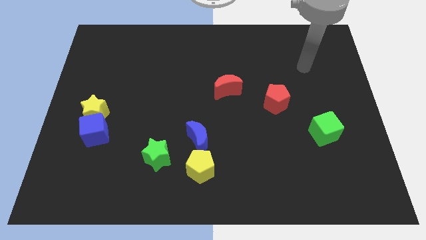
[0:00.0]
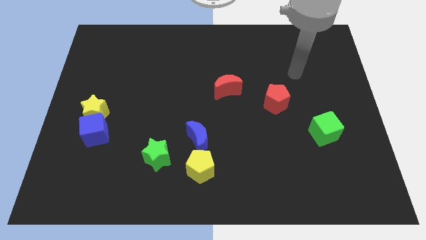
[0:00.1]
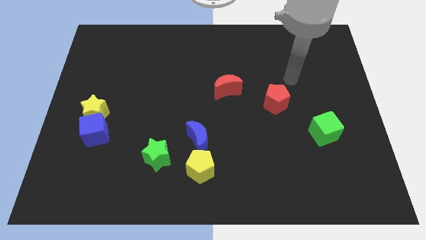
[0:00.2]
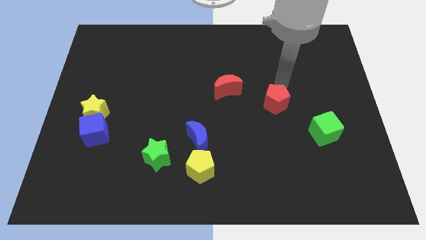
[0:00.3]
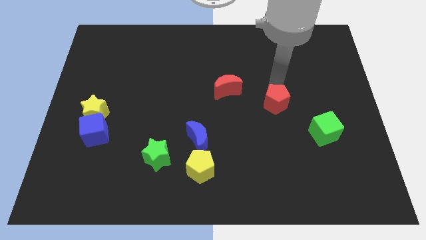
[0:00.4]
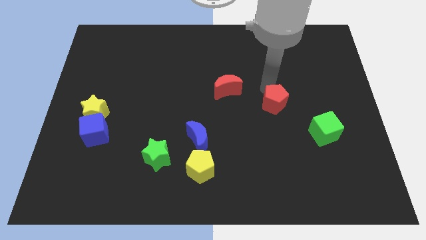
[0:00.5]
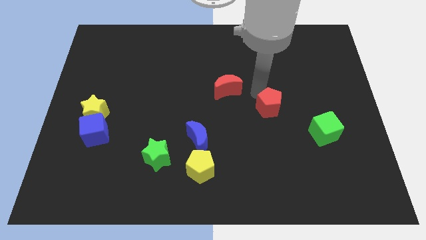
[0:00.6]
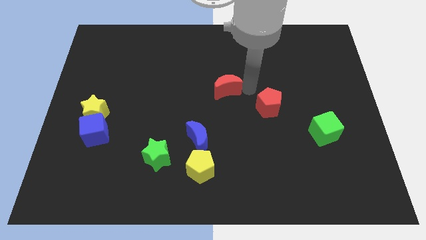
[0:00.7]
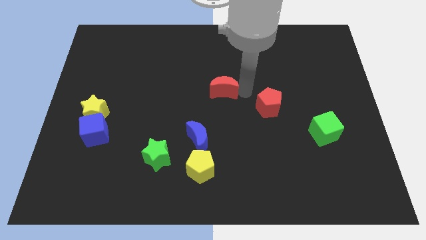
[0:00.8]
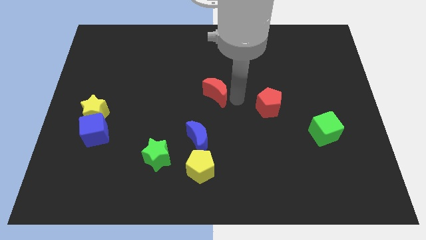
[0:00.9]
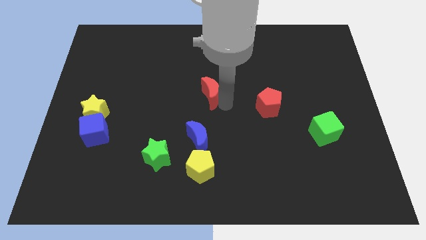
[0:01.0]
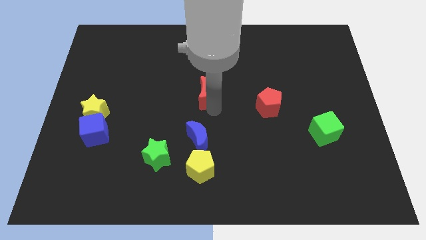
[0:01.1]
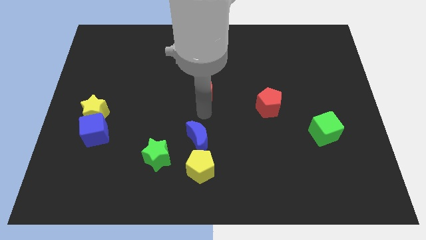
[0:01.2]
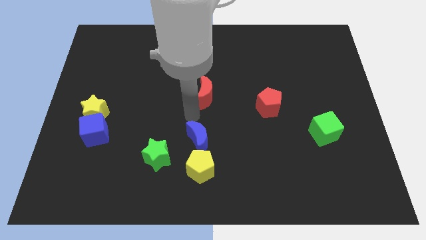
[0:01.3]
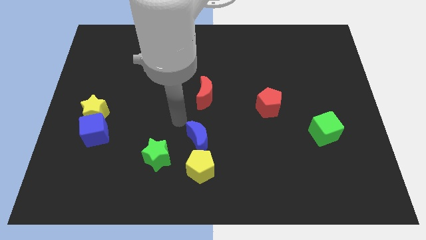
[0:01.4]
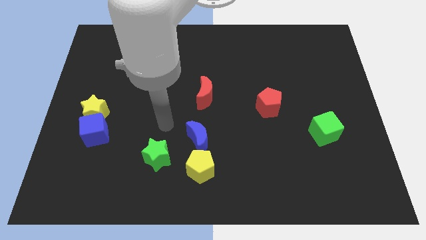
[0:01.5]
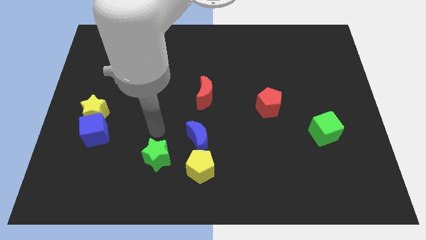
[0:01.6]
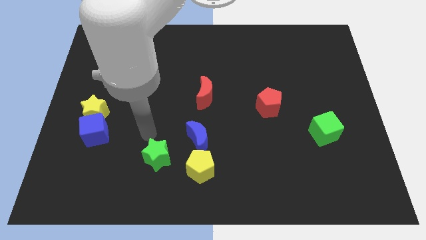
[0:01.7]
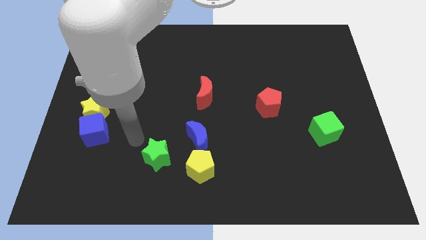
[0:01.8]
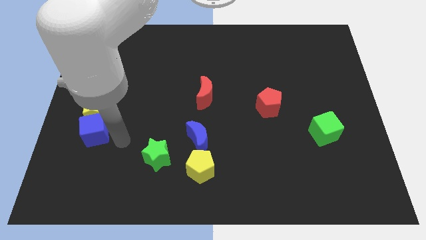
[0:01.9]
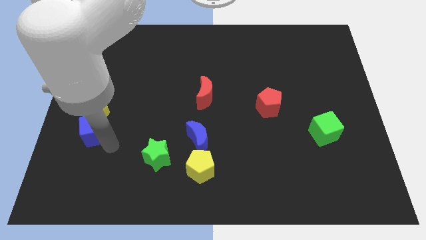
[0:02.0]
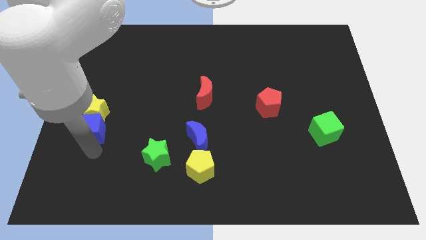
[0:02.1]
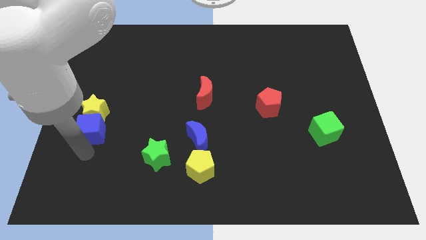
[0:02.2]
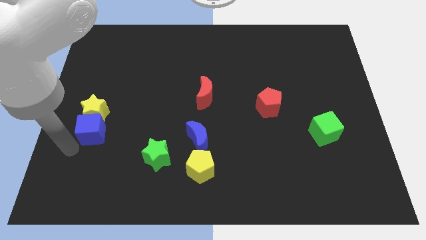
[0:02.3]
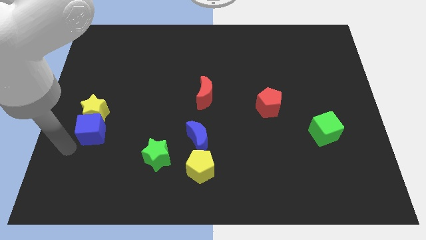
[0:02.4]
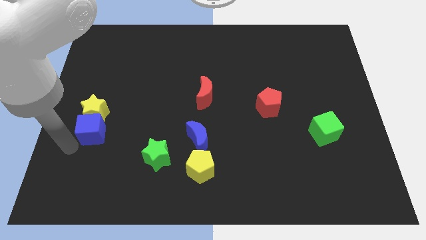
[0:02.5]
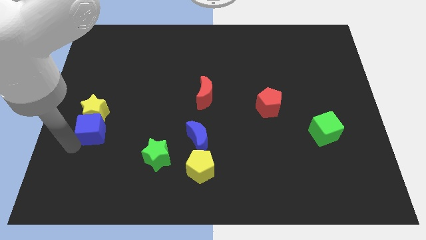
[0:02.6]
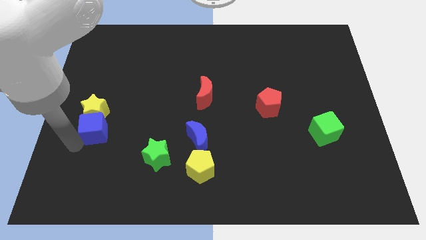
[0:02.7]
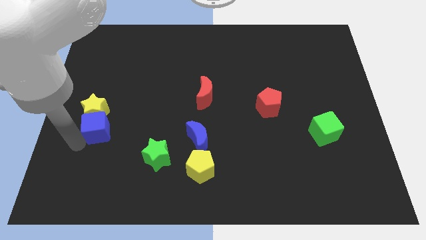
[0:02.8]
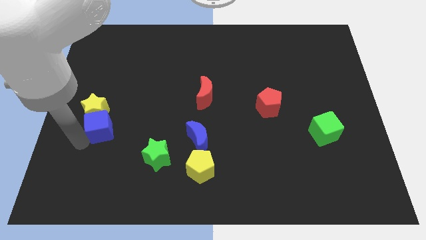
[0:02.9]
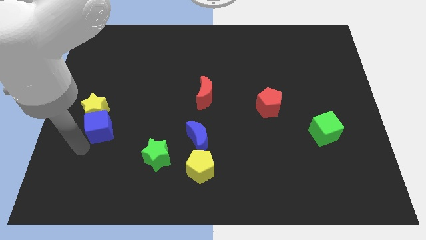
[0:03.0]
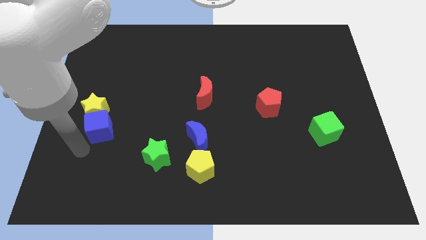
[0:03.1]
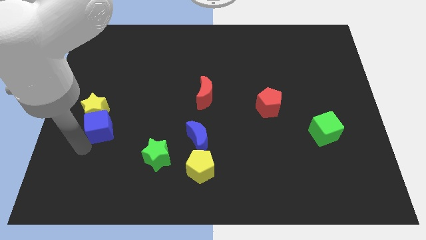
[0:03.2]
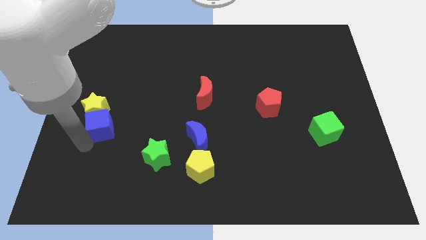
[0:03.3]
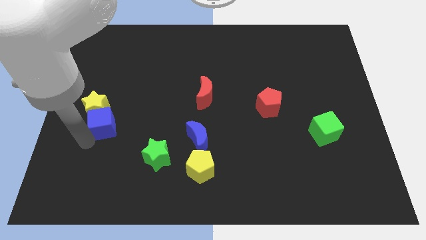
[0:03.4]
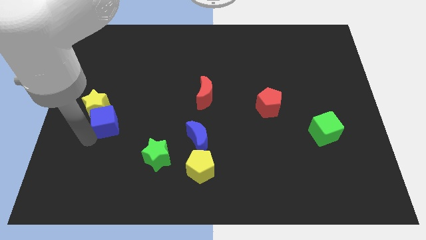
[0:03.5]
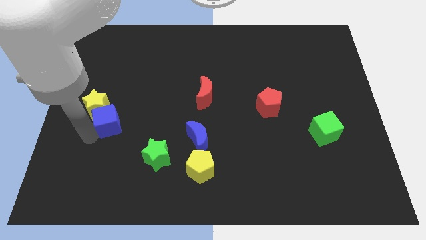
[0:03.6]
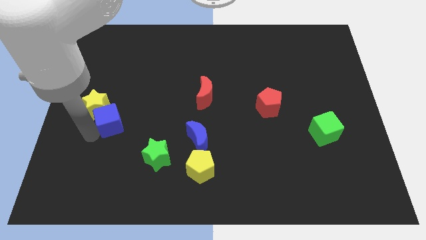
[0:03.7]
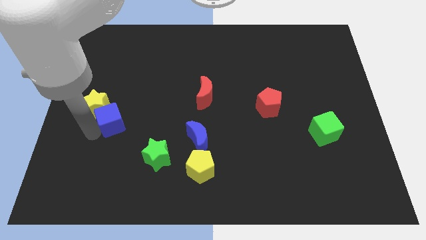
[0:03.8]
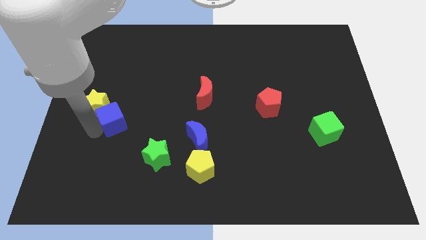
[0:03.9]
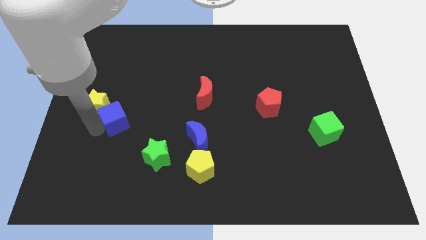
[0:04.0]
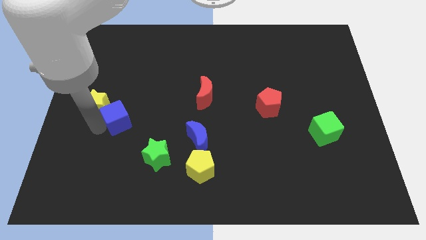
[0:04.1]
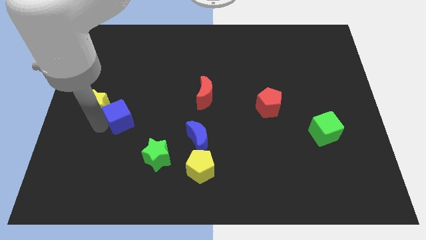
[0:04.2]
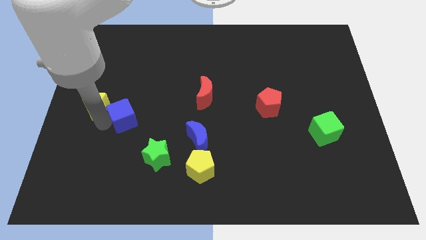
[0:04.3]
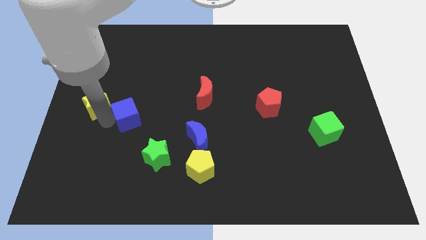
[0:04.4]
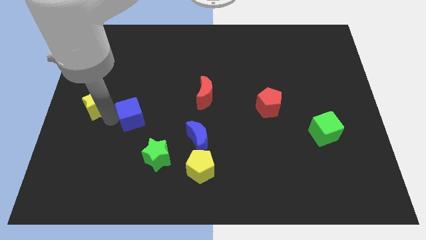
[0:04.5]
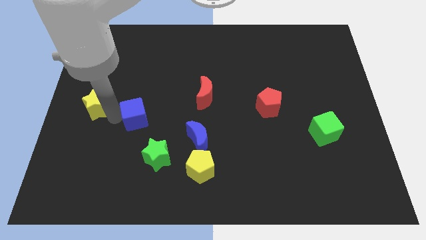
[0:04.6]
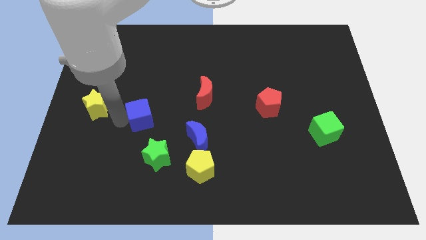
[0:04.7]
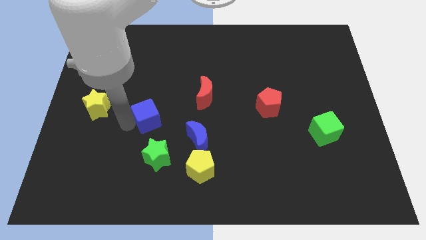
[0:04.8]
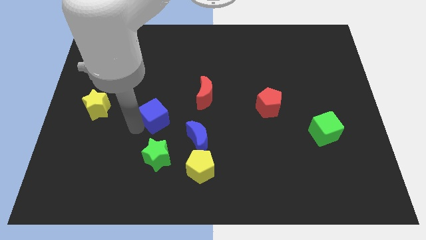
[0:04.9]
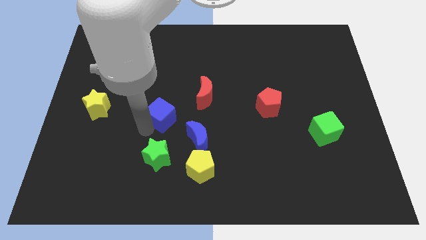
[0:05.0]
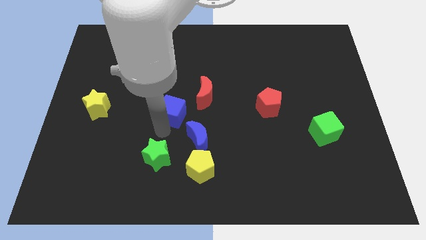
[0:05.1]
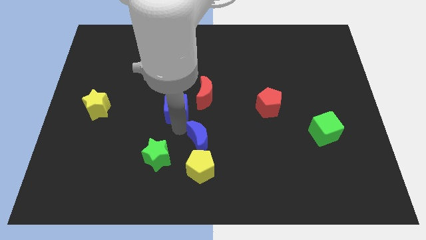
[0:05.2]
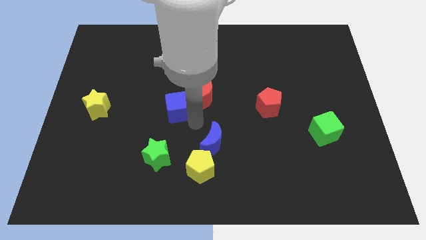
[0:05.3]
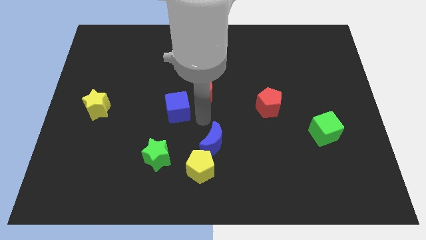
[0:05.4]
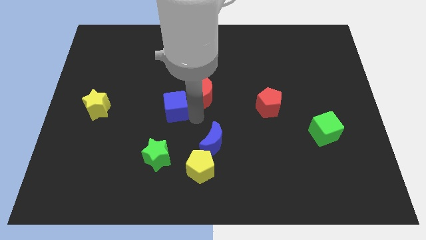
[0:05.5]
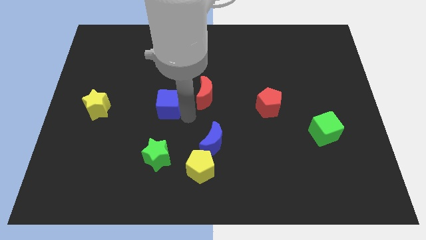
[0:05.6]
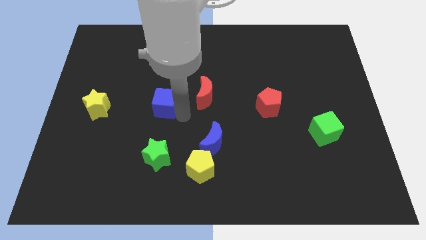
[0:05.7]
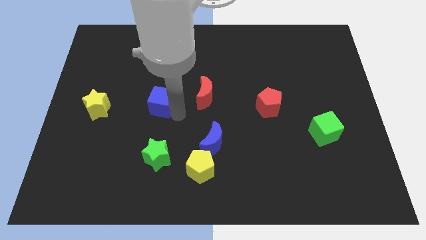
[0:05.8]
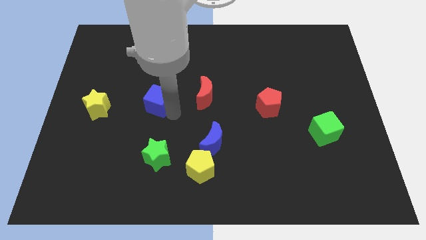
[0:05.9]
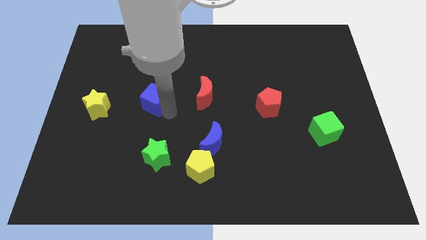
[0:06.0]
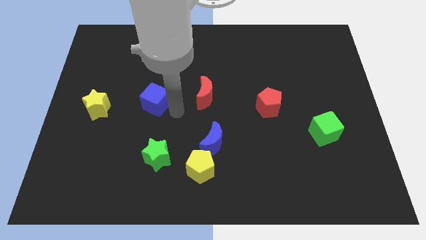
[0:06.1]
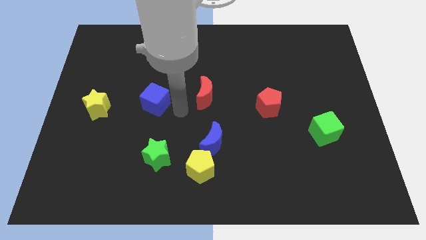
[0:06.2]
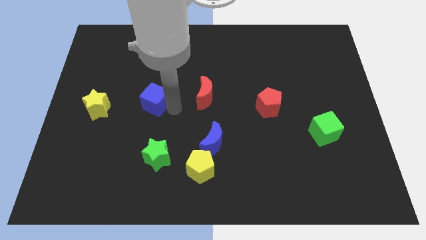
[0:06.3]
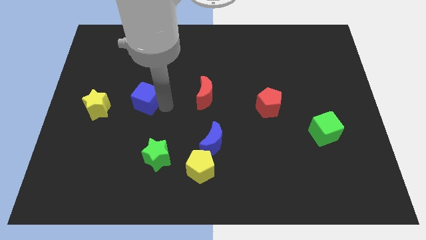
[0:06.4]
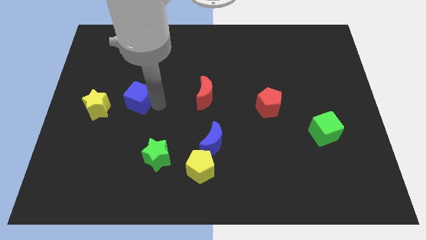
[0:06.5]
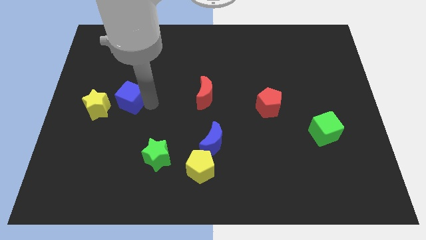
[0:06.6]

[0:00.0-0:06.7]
slide the blue cube to the top right side of the yellow star
